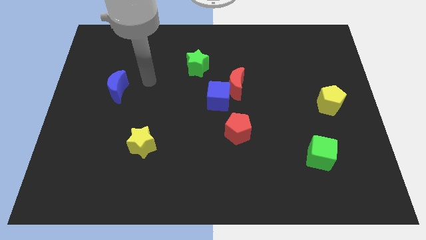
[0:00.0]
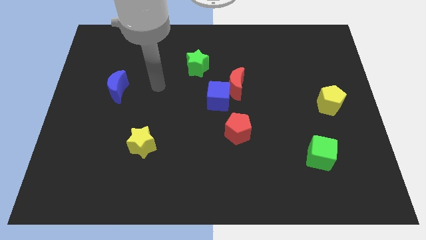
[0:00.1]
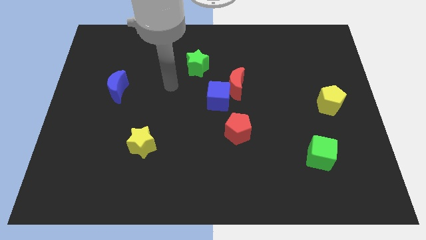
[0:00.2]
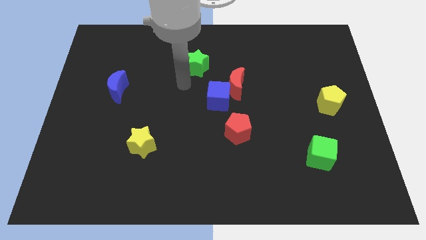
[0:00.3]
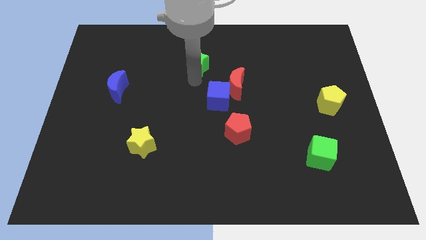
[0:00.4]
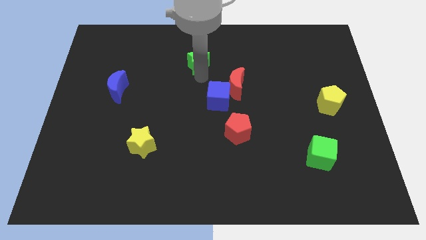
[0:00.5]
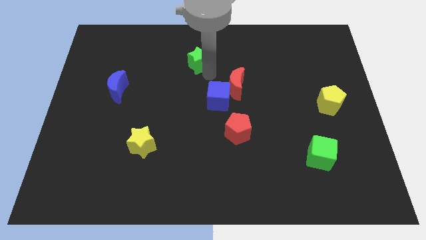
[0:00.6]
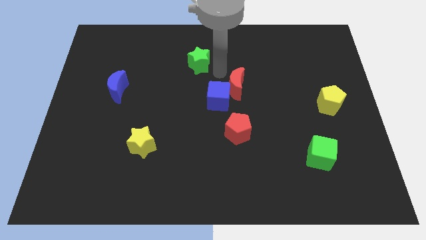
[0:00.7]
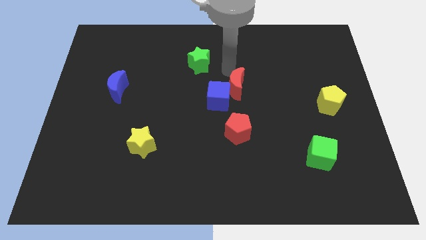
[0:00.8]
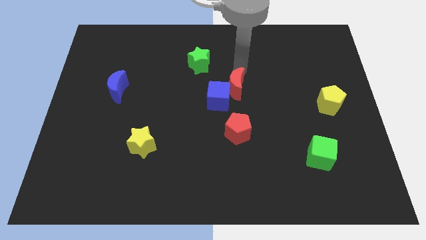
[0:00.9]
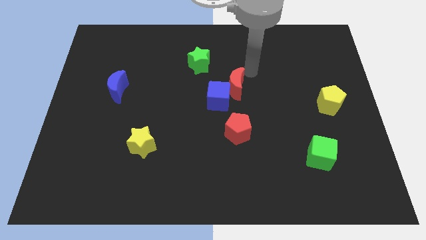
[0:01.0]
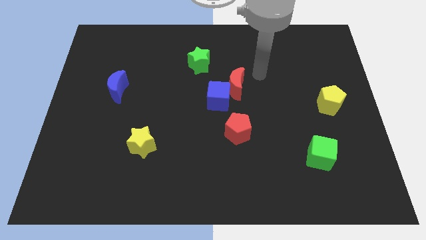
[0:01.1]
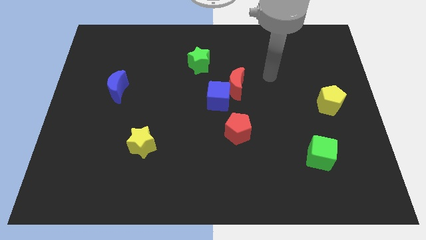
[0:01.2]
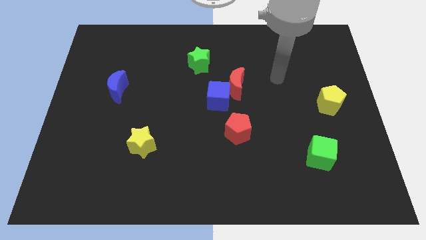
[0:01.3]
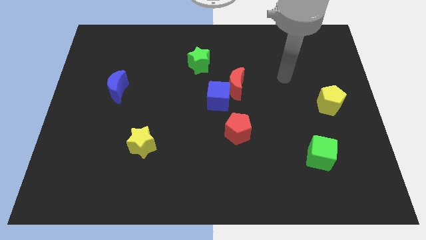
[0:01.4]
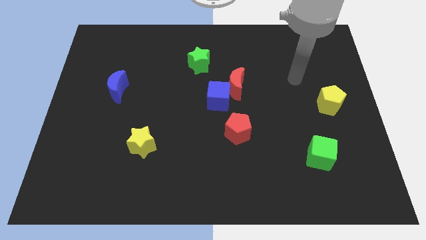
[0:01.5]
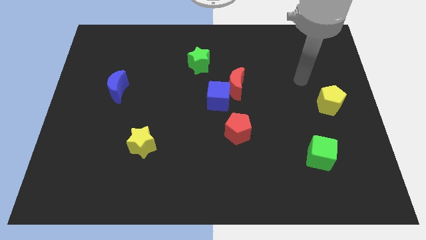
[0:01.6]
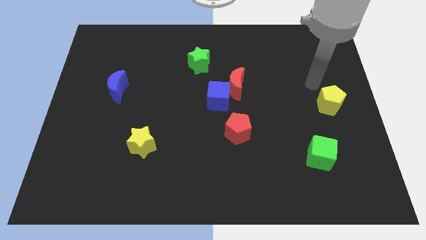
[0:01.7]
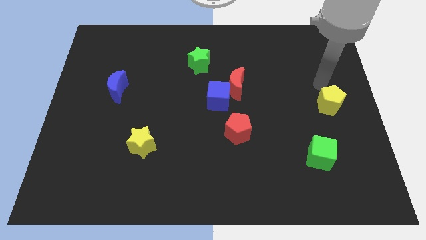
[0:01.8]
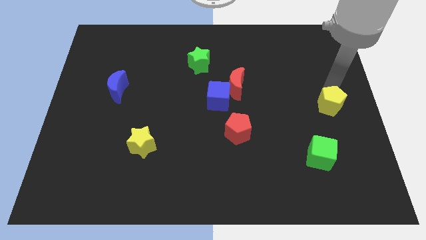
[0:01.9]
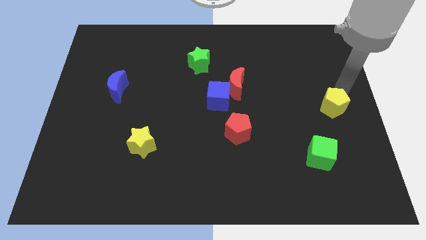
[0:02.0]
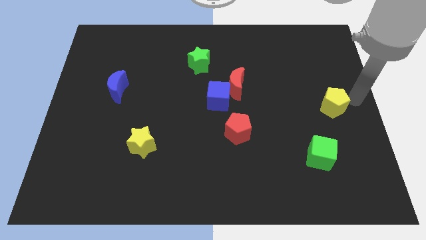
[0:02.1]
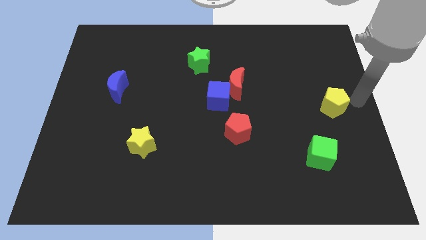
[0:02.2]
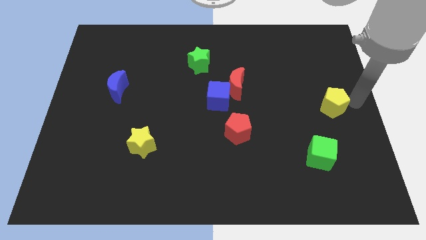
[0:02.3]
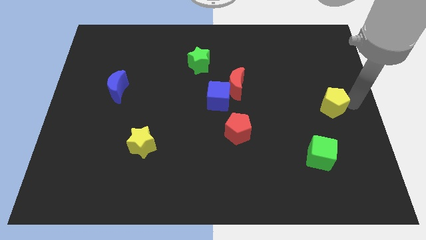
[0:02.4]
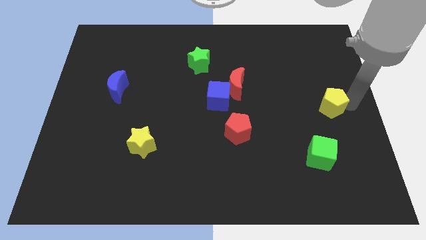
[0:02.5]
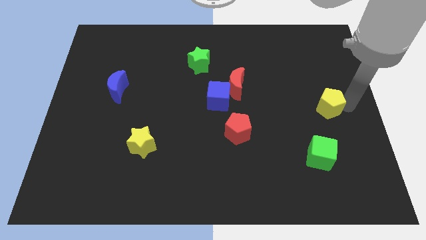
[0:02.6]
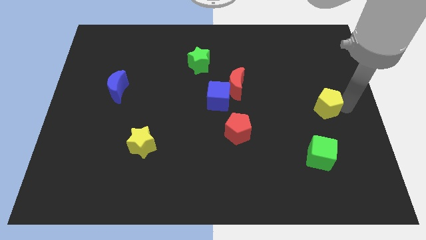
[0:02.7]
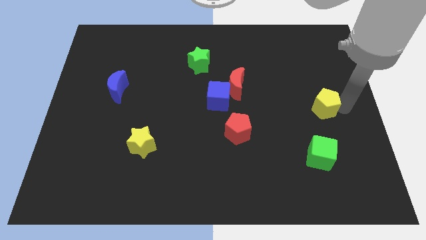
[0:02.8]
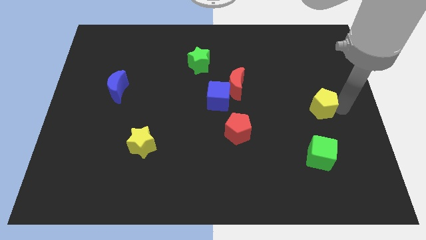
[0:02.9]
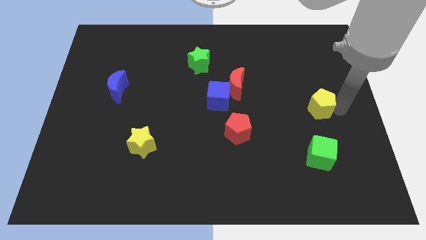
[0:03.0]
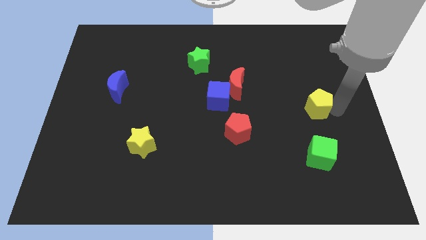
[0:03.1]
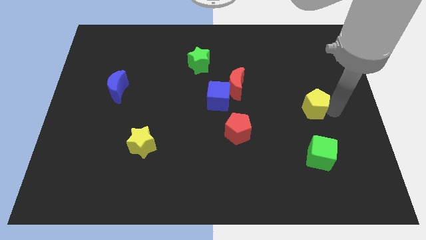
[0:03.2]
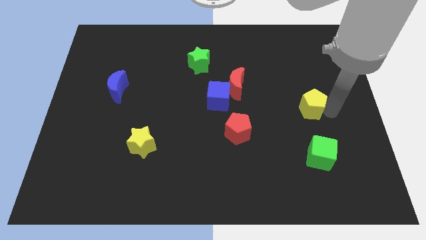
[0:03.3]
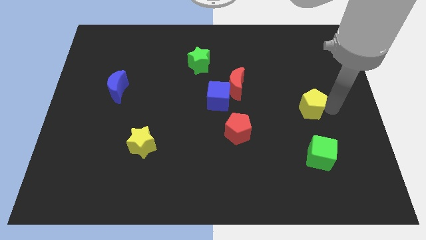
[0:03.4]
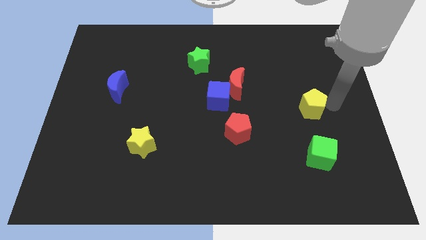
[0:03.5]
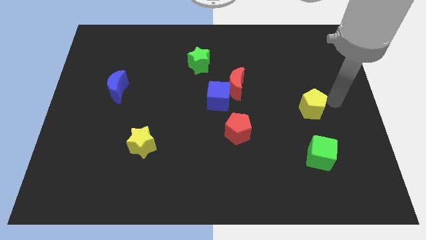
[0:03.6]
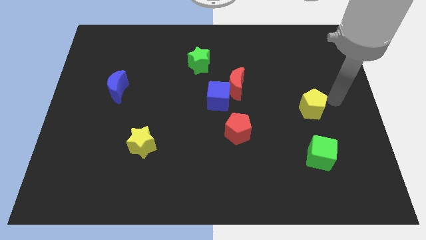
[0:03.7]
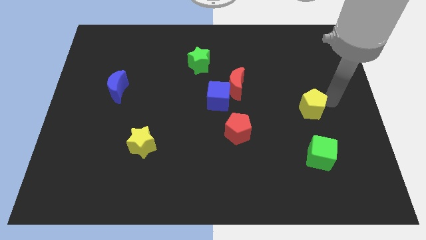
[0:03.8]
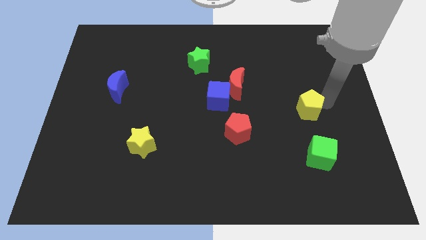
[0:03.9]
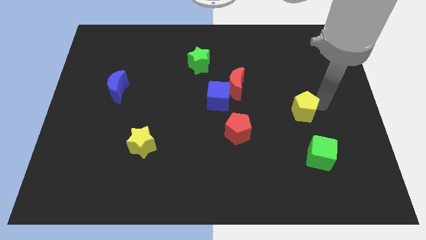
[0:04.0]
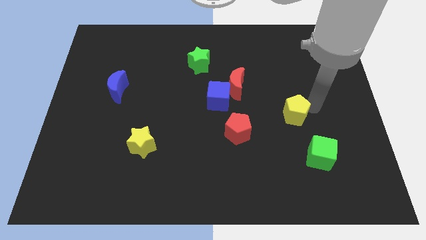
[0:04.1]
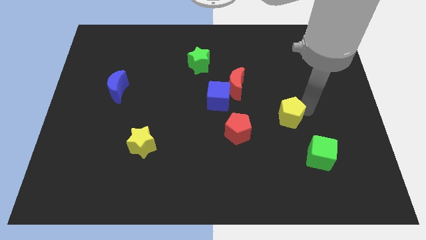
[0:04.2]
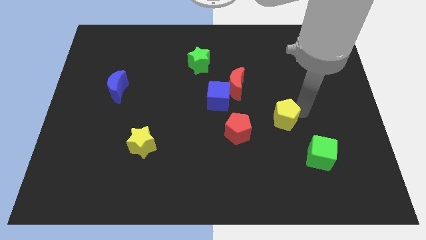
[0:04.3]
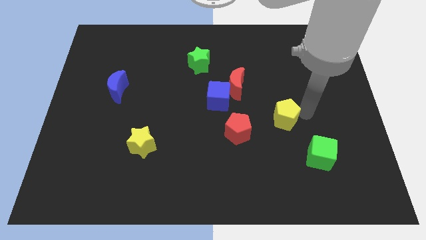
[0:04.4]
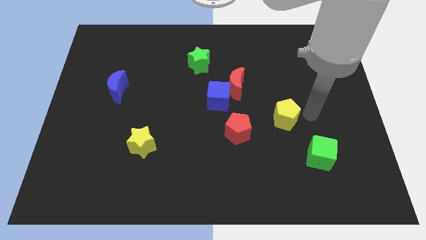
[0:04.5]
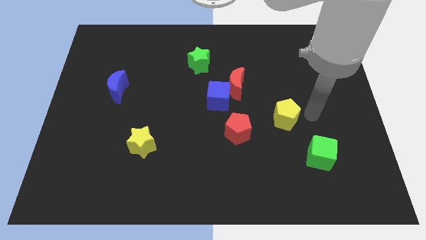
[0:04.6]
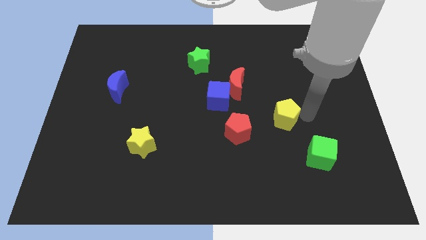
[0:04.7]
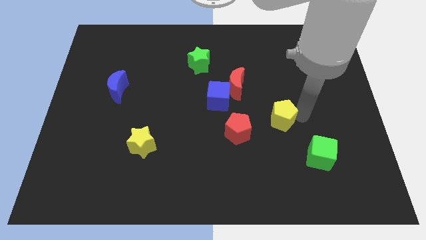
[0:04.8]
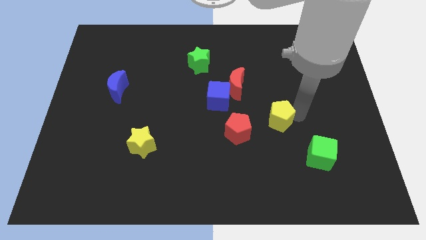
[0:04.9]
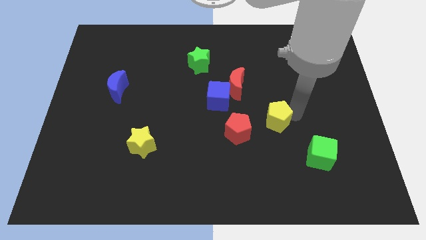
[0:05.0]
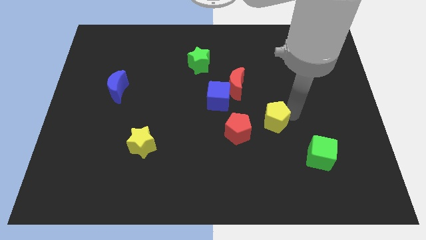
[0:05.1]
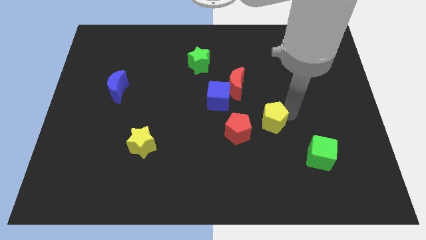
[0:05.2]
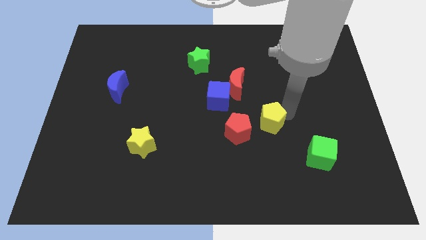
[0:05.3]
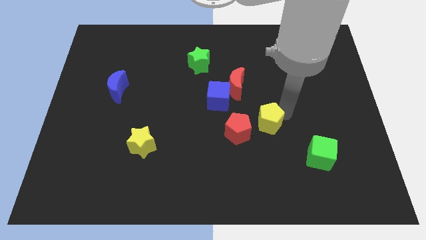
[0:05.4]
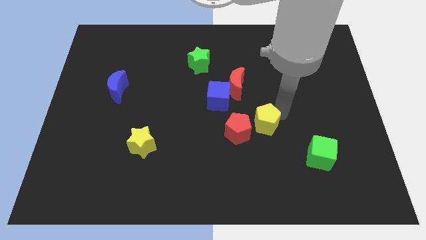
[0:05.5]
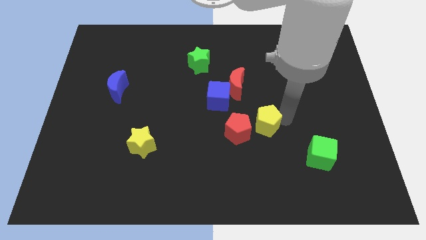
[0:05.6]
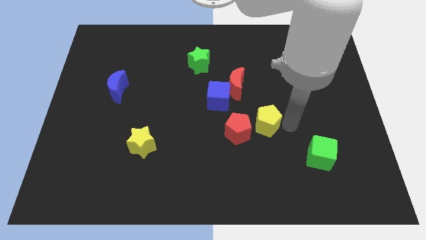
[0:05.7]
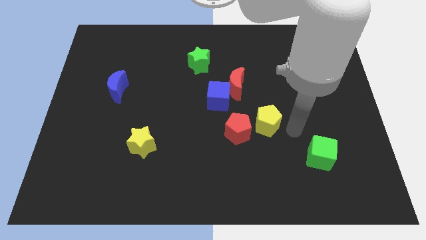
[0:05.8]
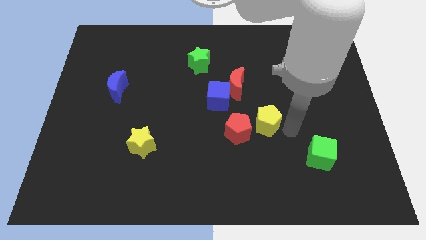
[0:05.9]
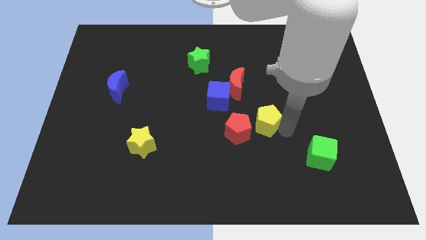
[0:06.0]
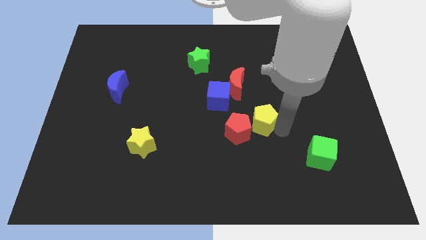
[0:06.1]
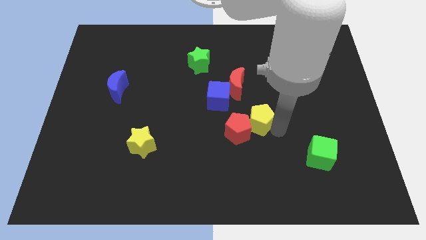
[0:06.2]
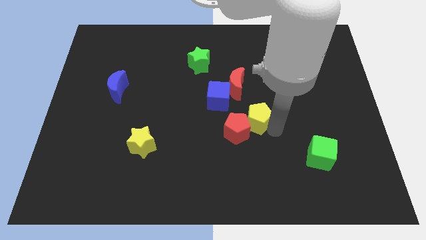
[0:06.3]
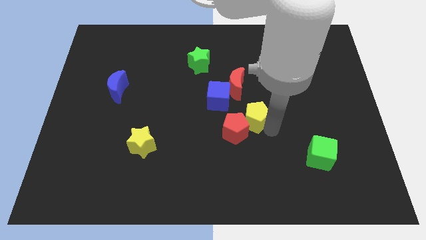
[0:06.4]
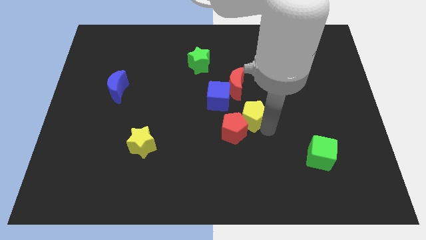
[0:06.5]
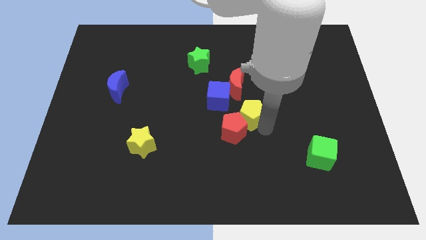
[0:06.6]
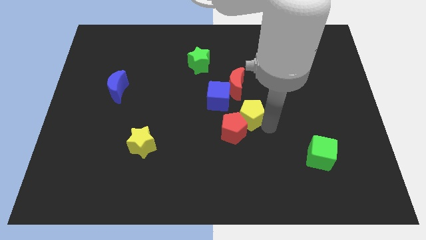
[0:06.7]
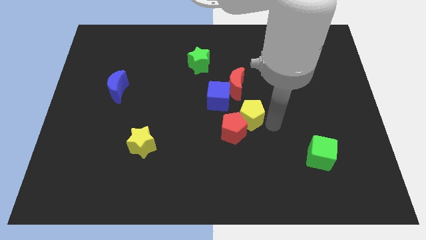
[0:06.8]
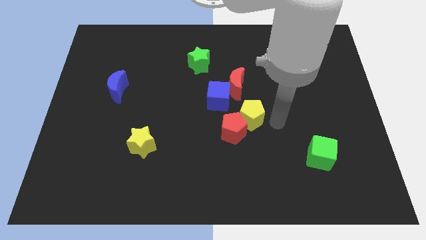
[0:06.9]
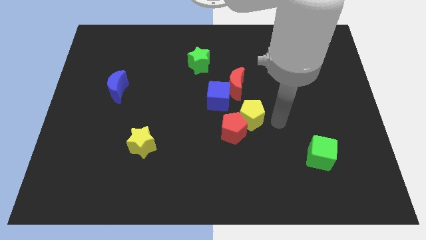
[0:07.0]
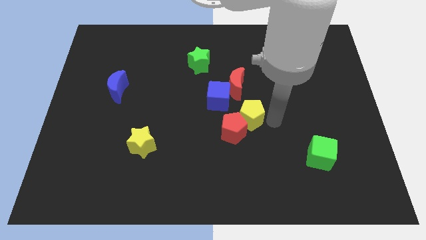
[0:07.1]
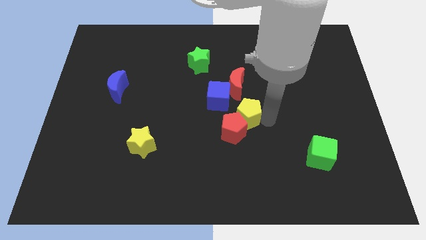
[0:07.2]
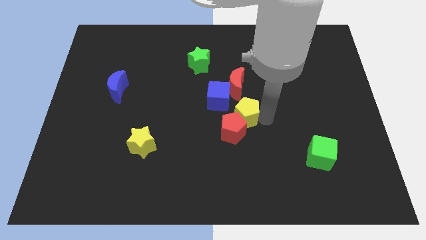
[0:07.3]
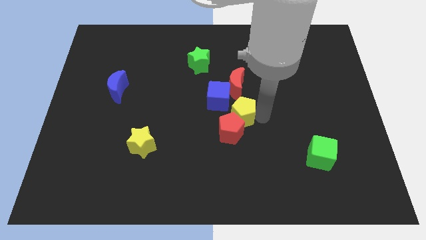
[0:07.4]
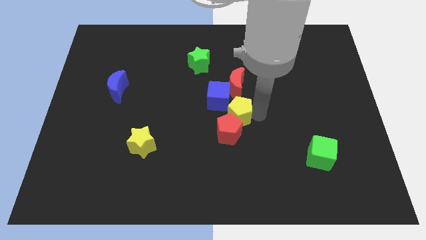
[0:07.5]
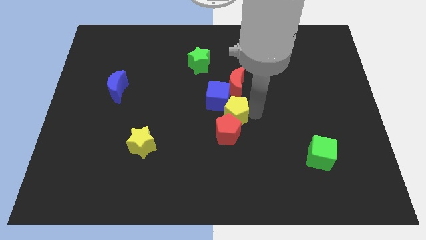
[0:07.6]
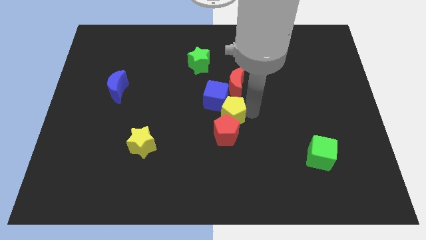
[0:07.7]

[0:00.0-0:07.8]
push the yellow pentagon diagonally up and to the left of the red pentagon
